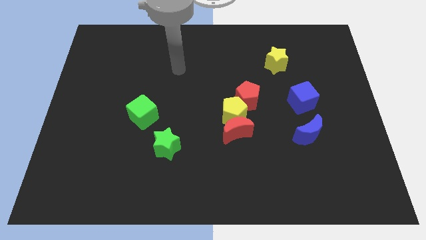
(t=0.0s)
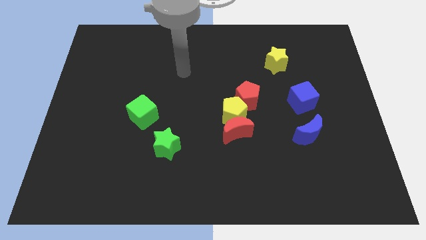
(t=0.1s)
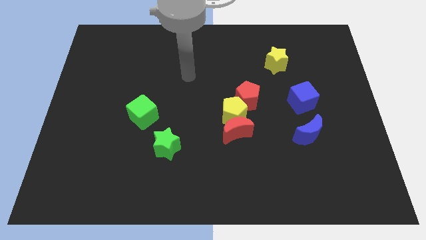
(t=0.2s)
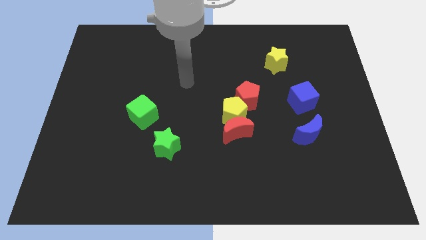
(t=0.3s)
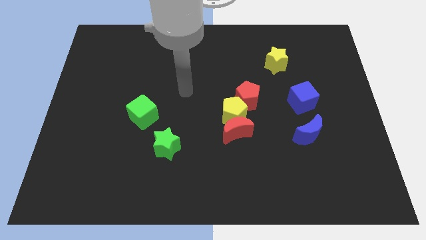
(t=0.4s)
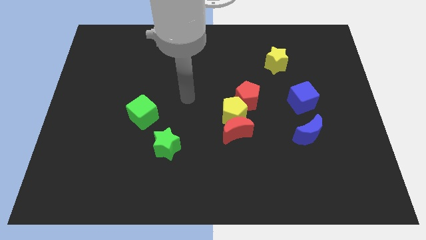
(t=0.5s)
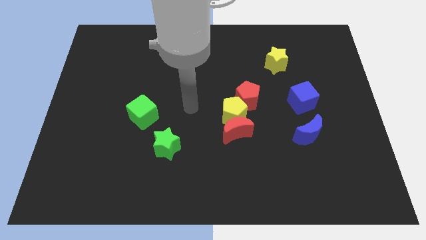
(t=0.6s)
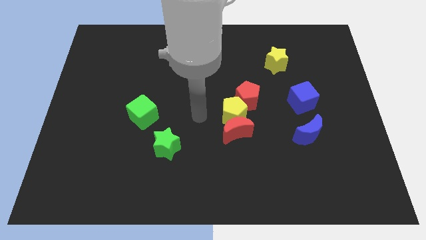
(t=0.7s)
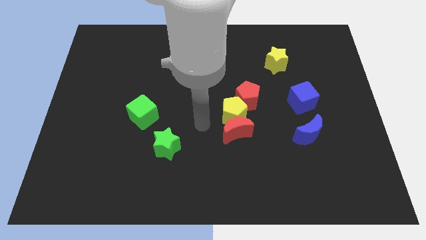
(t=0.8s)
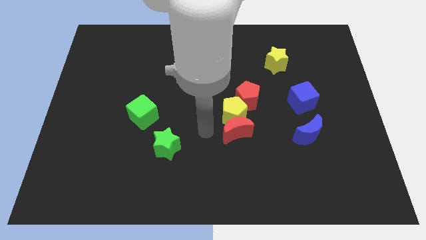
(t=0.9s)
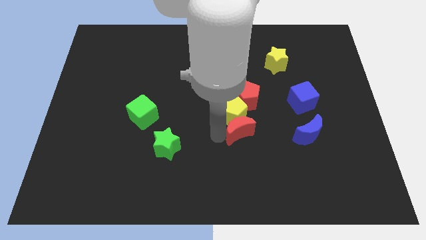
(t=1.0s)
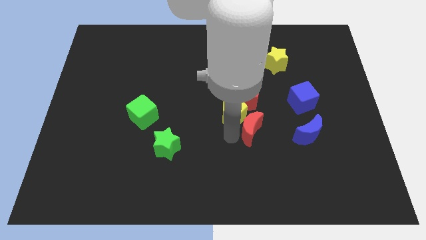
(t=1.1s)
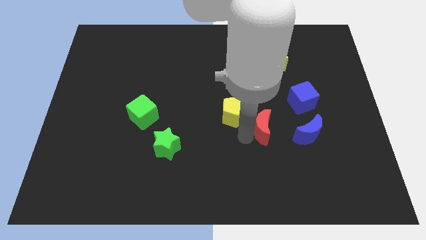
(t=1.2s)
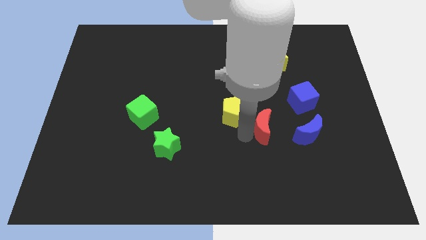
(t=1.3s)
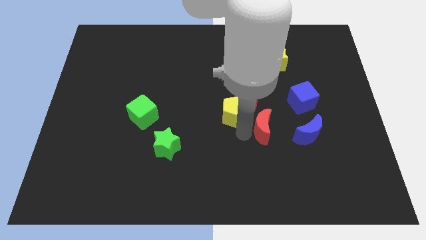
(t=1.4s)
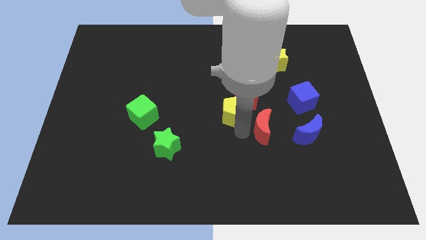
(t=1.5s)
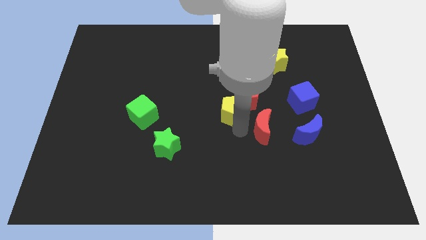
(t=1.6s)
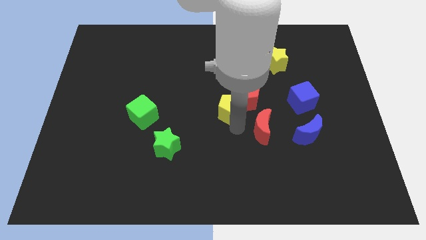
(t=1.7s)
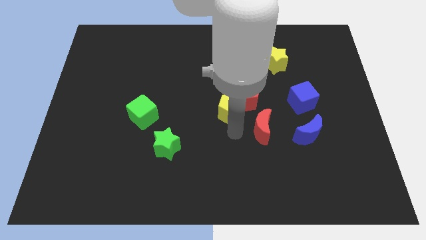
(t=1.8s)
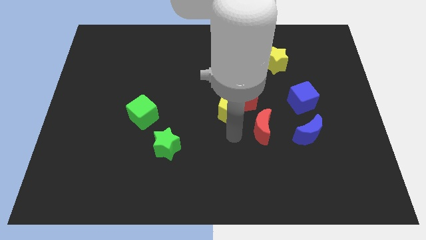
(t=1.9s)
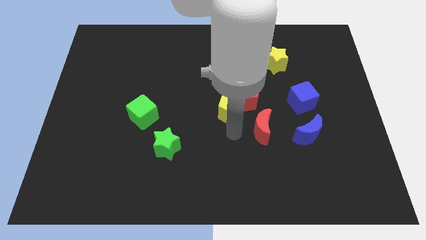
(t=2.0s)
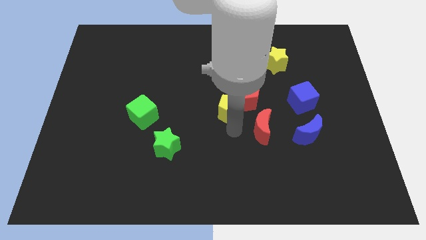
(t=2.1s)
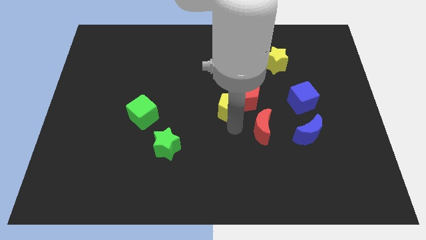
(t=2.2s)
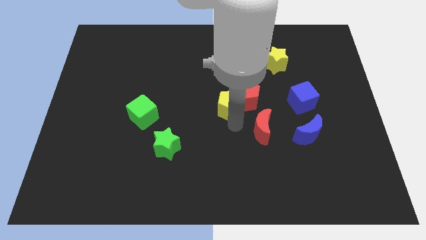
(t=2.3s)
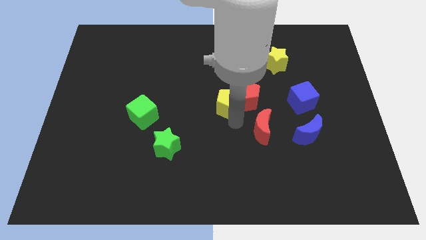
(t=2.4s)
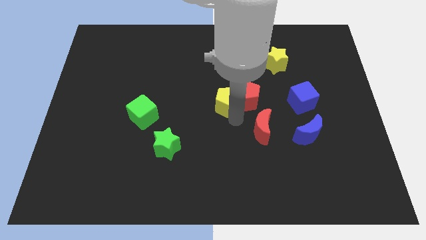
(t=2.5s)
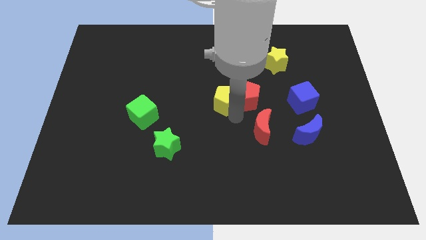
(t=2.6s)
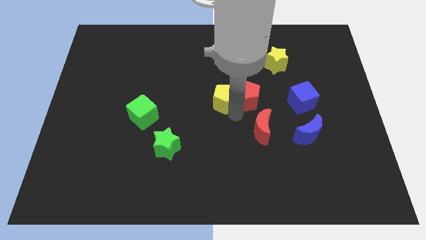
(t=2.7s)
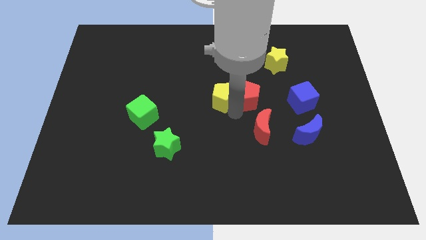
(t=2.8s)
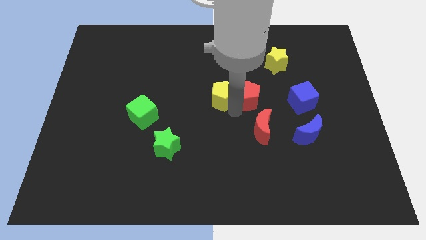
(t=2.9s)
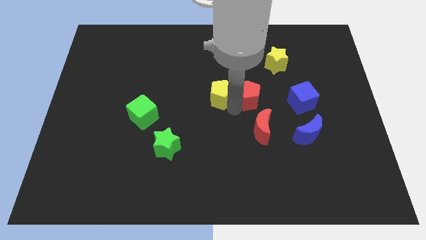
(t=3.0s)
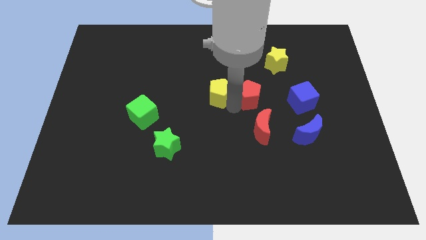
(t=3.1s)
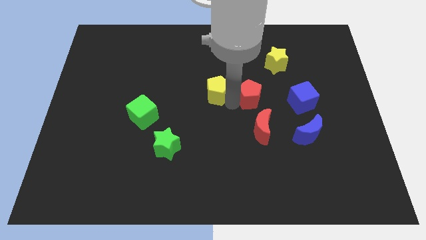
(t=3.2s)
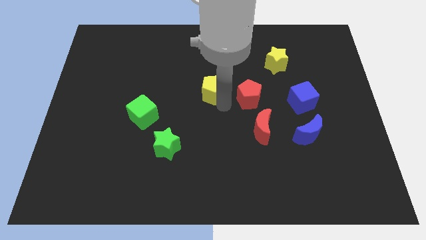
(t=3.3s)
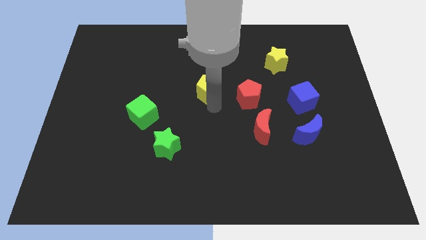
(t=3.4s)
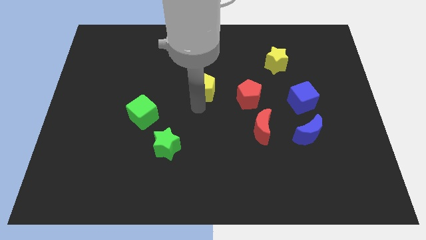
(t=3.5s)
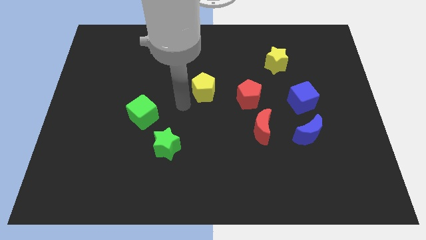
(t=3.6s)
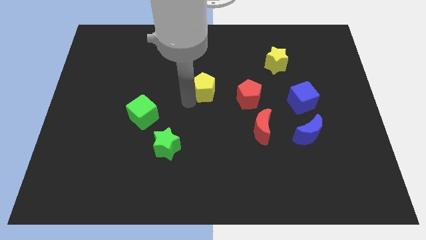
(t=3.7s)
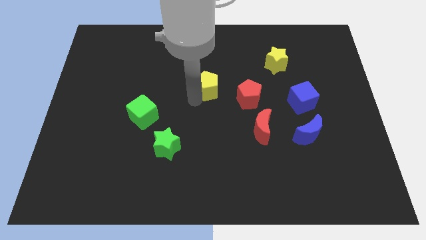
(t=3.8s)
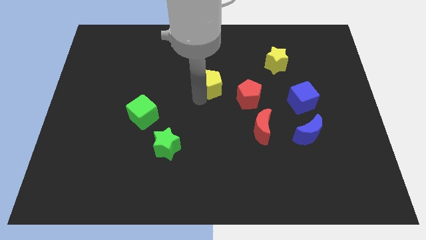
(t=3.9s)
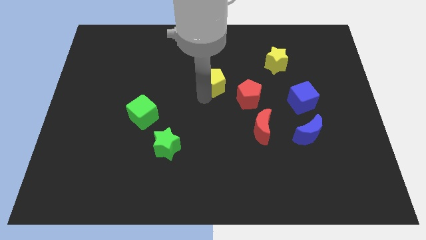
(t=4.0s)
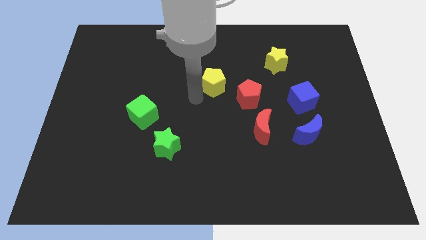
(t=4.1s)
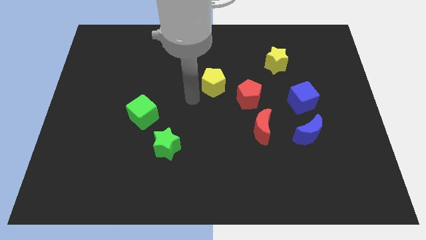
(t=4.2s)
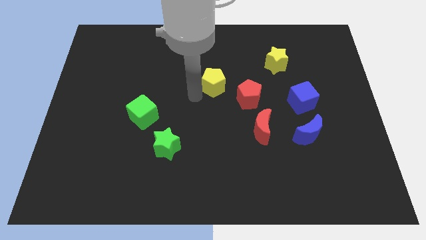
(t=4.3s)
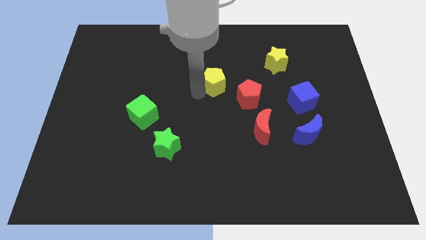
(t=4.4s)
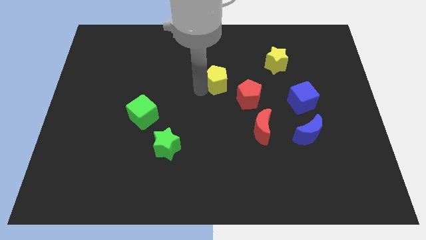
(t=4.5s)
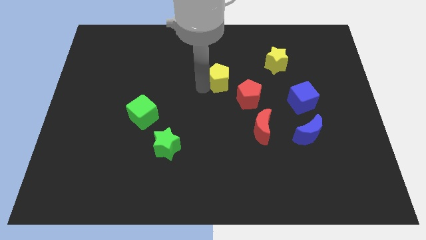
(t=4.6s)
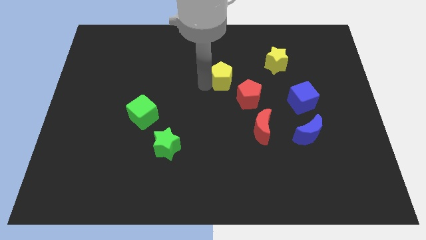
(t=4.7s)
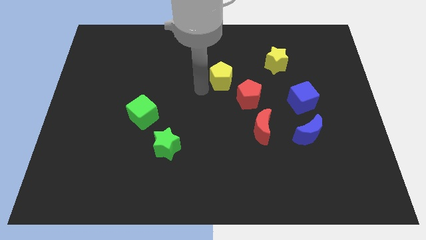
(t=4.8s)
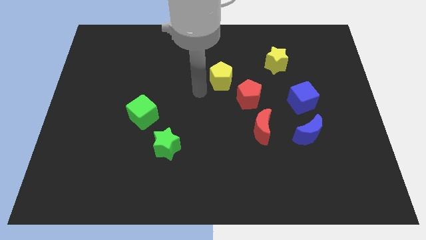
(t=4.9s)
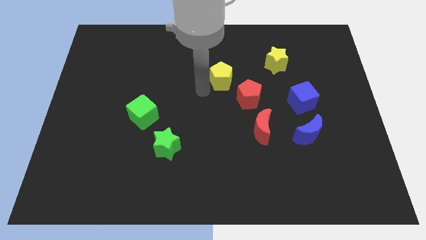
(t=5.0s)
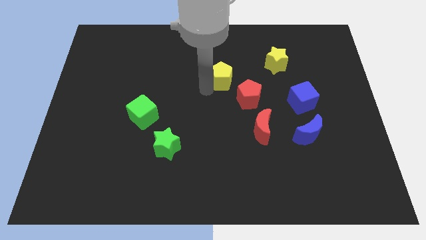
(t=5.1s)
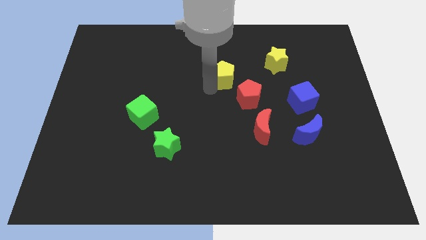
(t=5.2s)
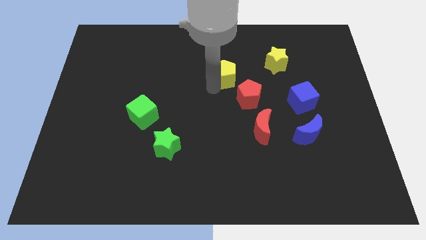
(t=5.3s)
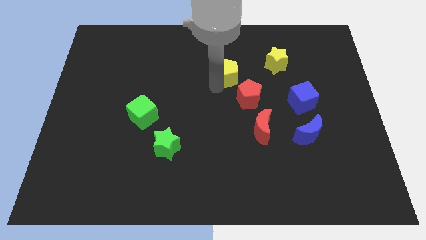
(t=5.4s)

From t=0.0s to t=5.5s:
slide the yellow pentagon to the top side of the red pentagon

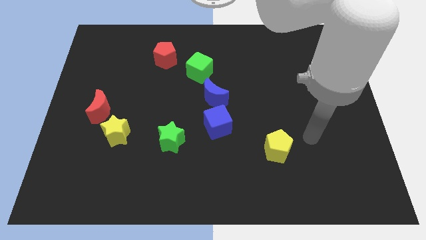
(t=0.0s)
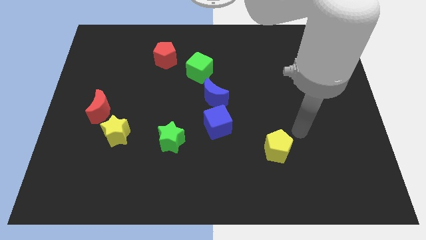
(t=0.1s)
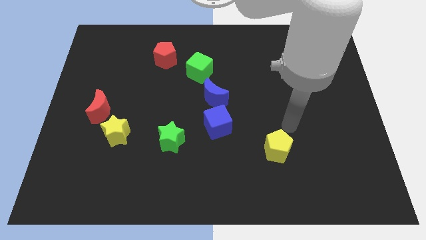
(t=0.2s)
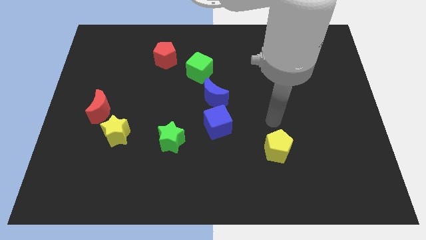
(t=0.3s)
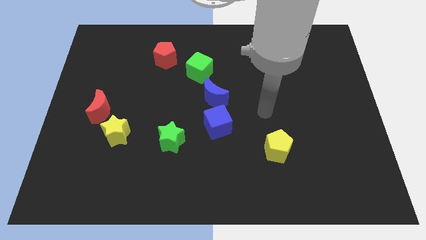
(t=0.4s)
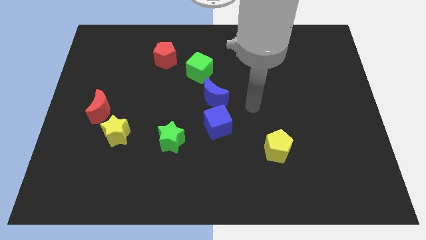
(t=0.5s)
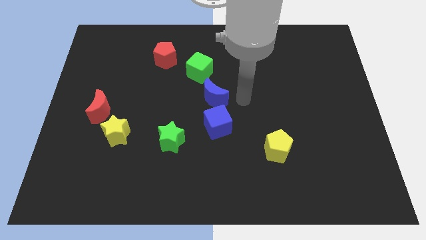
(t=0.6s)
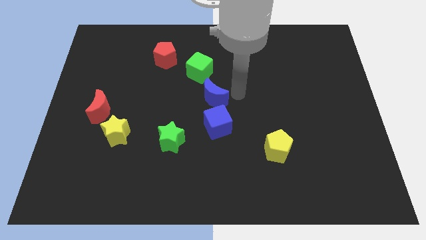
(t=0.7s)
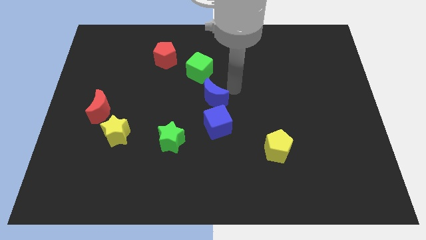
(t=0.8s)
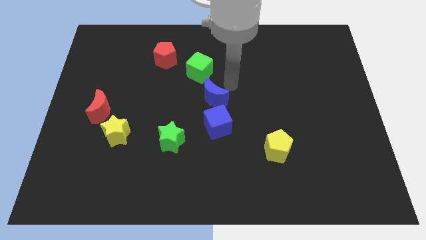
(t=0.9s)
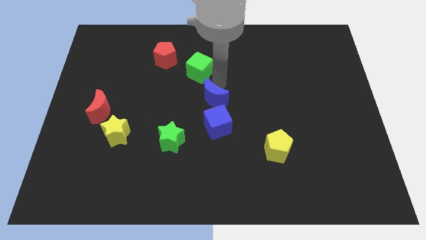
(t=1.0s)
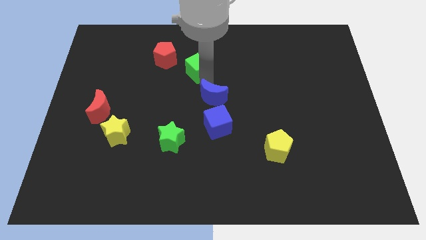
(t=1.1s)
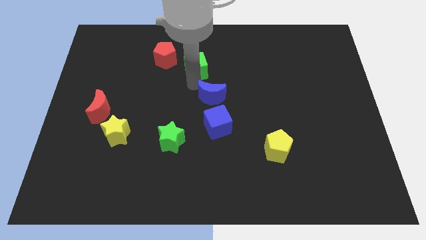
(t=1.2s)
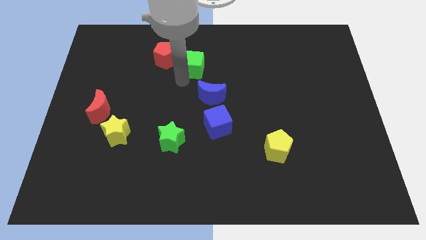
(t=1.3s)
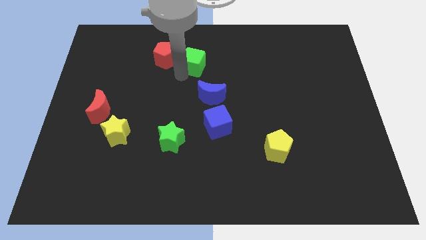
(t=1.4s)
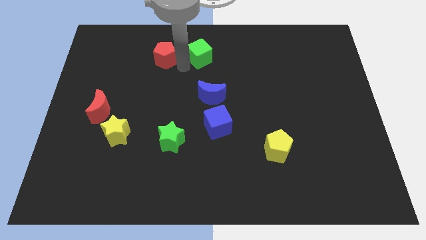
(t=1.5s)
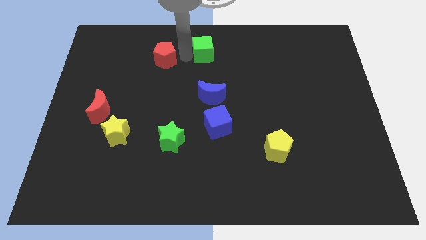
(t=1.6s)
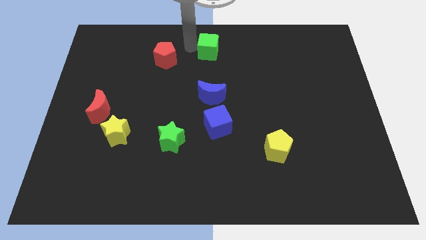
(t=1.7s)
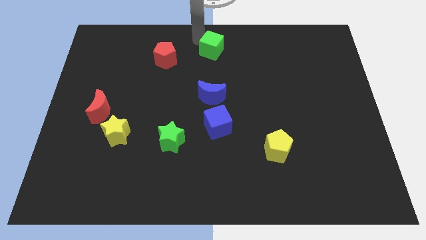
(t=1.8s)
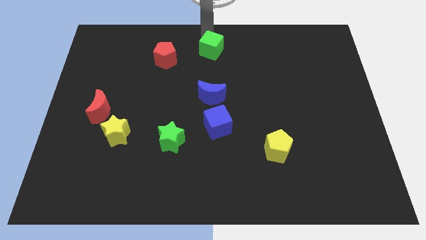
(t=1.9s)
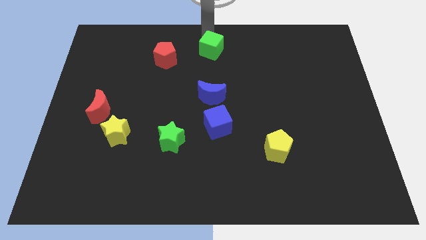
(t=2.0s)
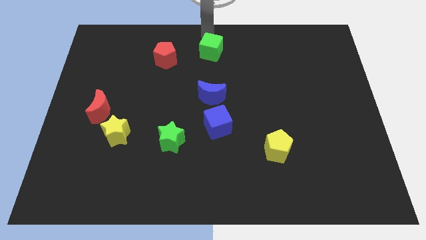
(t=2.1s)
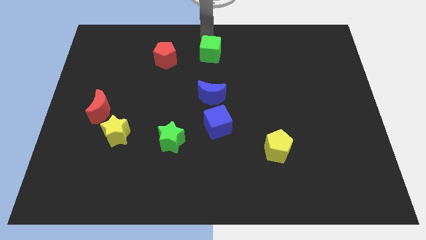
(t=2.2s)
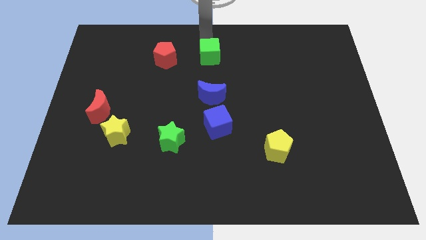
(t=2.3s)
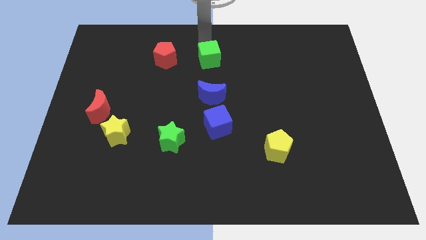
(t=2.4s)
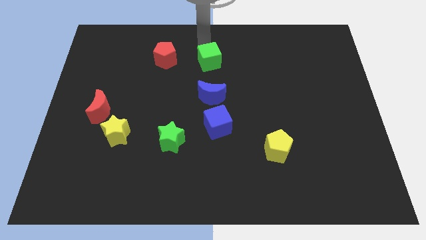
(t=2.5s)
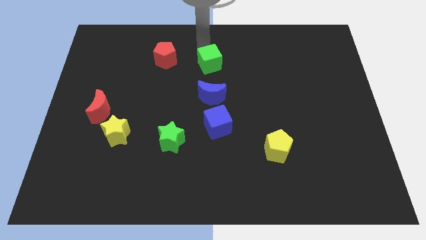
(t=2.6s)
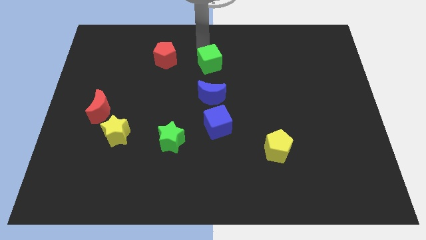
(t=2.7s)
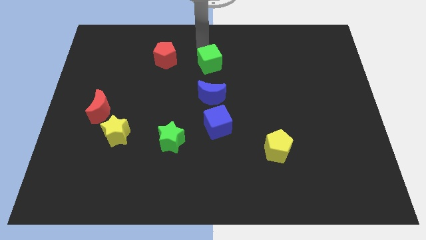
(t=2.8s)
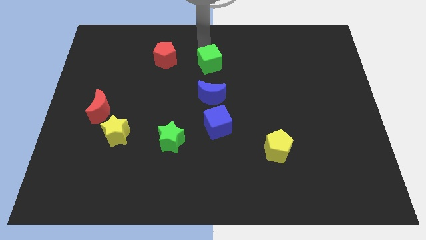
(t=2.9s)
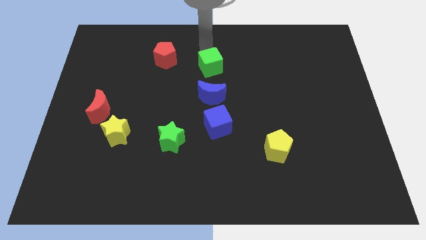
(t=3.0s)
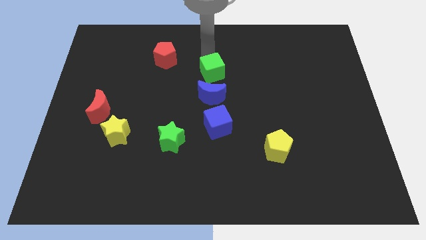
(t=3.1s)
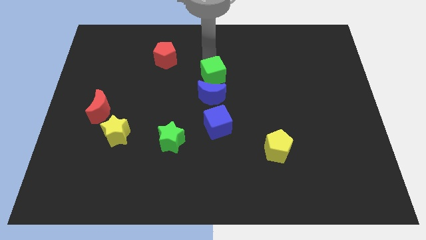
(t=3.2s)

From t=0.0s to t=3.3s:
put the green cube to the top right of the blue moon
